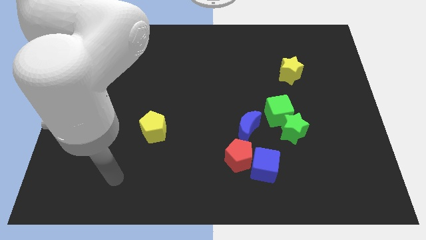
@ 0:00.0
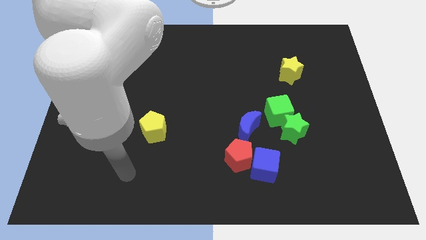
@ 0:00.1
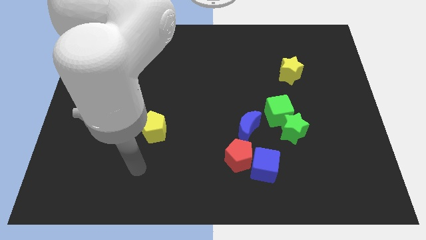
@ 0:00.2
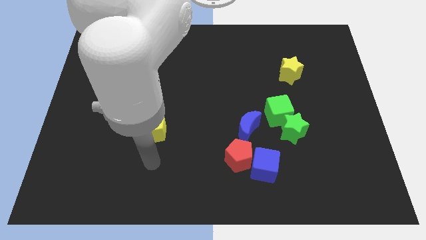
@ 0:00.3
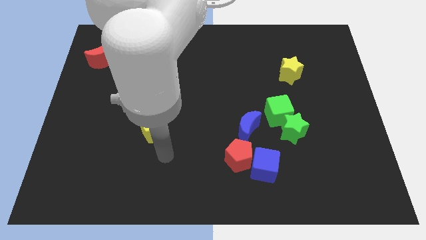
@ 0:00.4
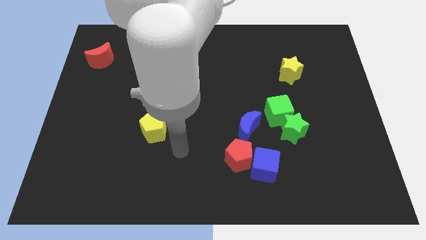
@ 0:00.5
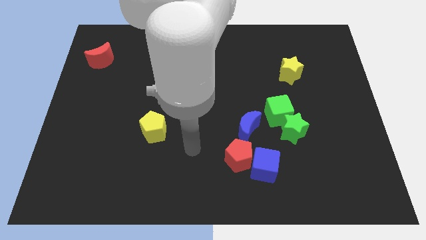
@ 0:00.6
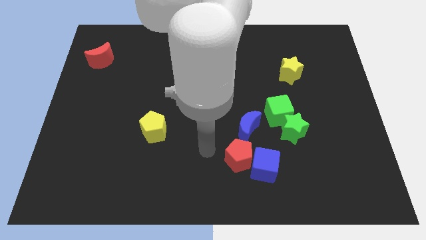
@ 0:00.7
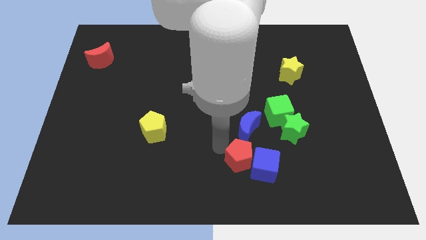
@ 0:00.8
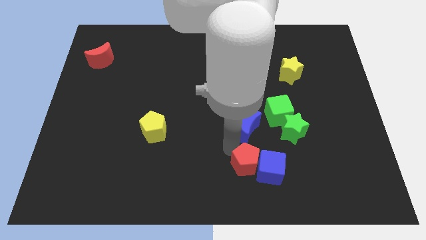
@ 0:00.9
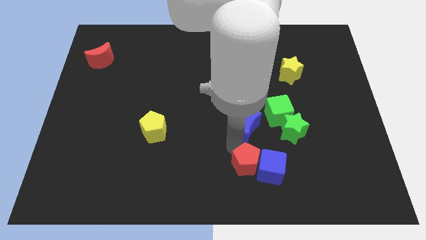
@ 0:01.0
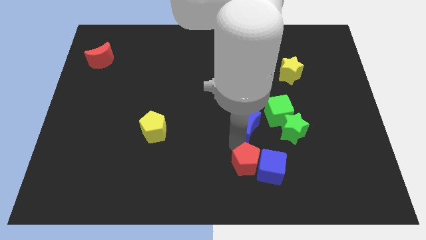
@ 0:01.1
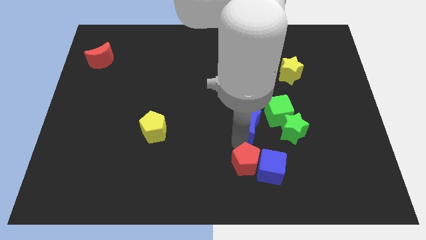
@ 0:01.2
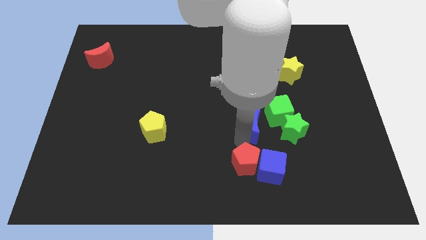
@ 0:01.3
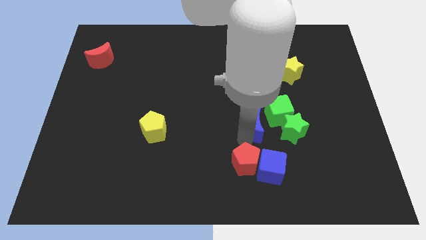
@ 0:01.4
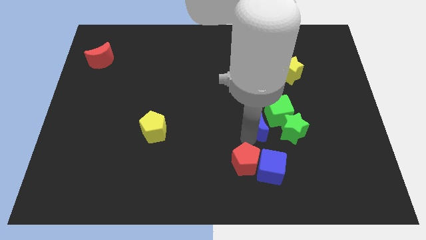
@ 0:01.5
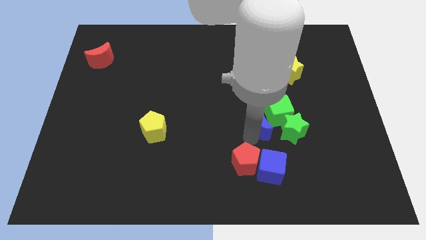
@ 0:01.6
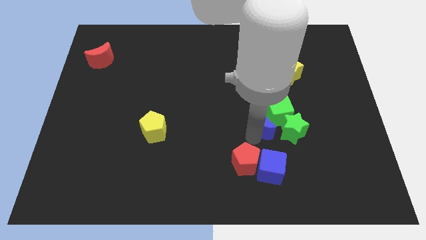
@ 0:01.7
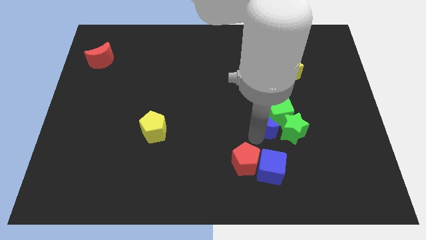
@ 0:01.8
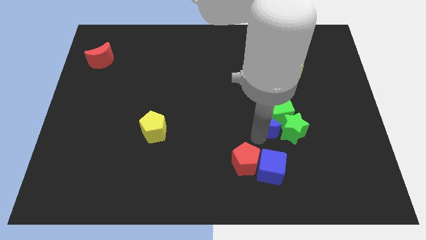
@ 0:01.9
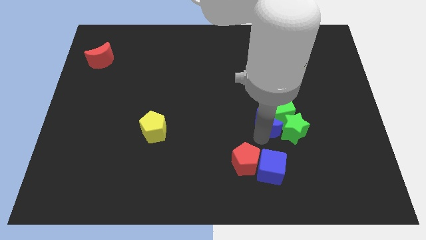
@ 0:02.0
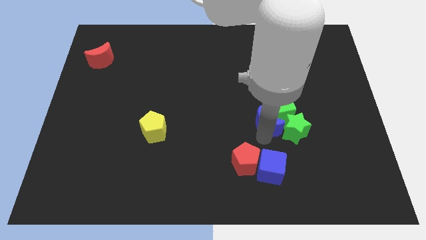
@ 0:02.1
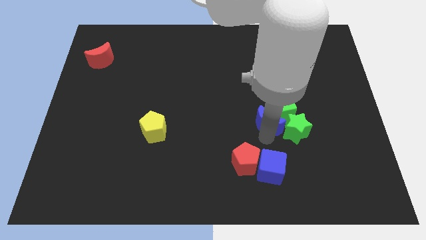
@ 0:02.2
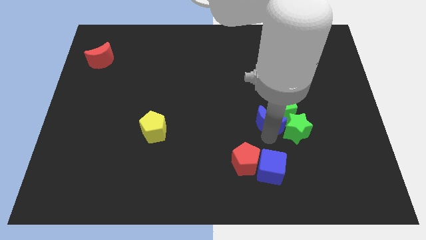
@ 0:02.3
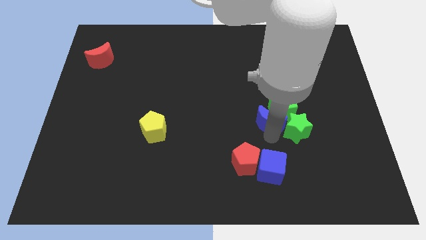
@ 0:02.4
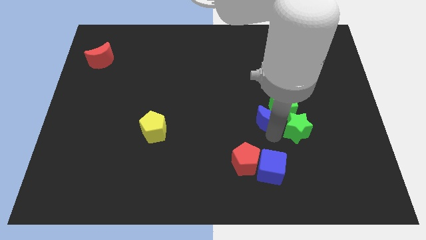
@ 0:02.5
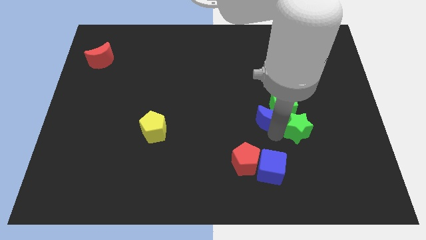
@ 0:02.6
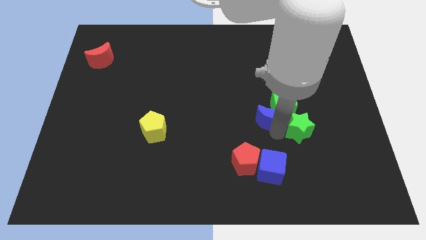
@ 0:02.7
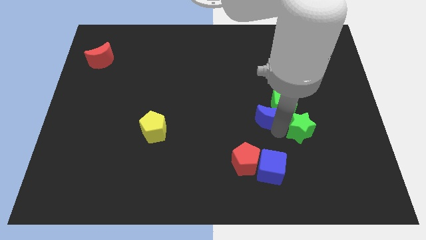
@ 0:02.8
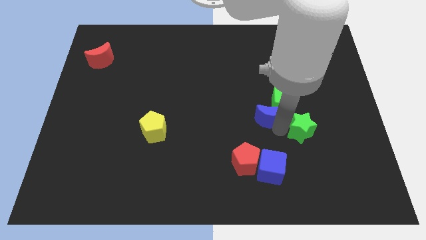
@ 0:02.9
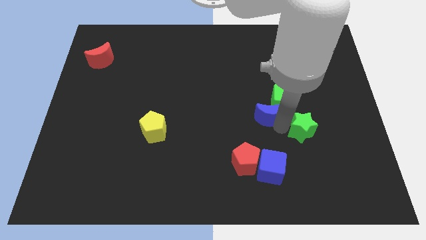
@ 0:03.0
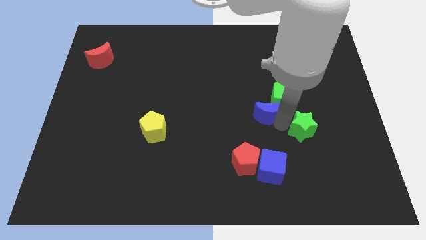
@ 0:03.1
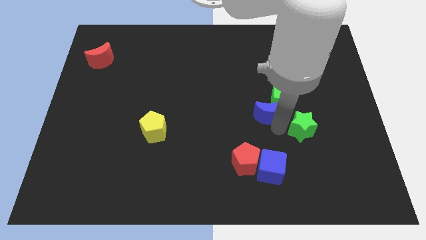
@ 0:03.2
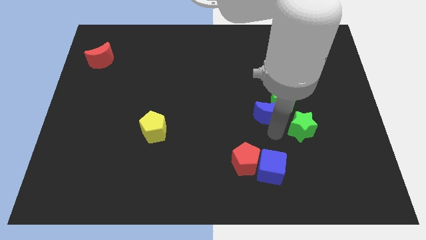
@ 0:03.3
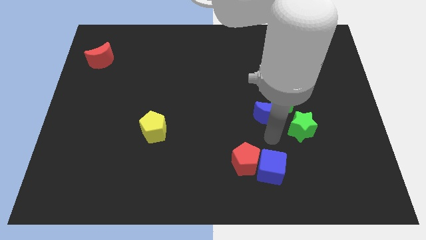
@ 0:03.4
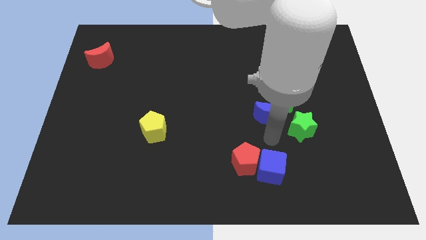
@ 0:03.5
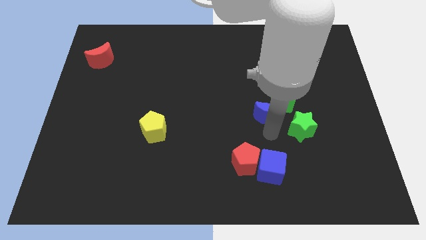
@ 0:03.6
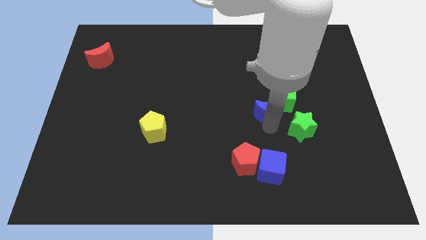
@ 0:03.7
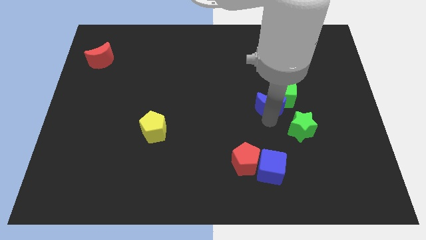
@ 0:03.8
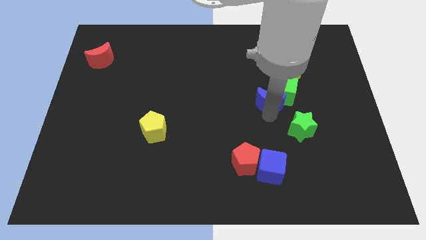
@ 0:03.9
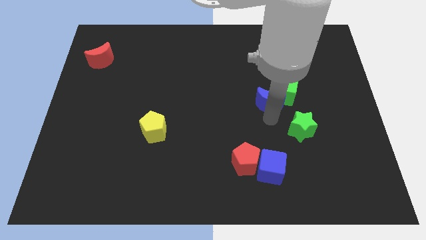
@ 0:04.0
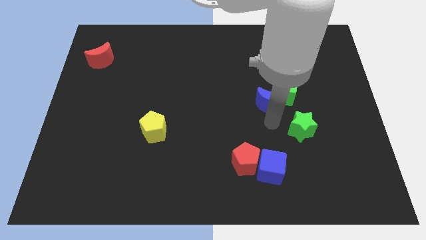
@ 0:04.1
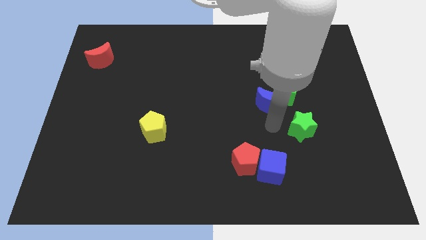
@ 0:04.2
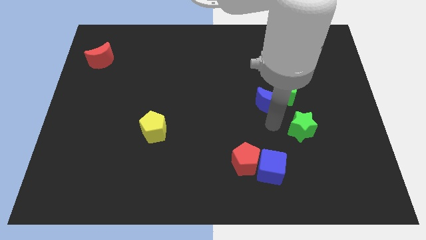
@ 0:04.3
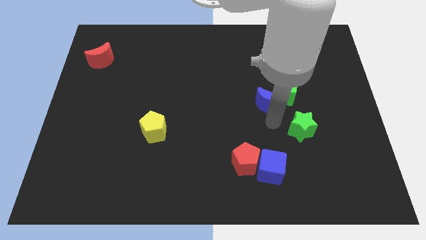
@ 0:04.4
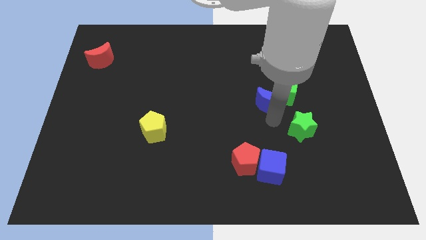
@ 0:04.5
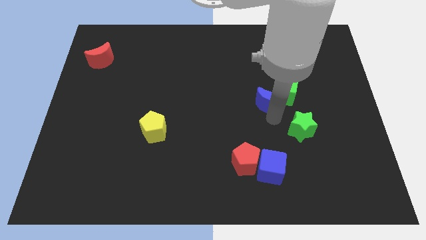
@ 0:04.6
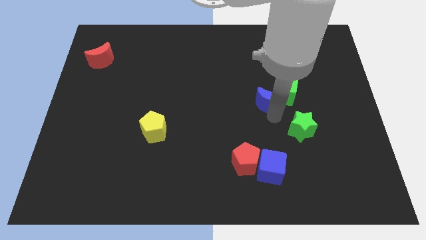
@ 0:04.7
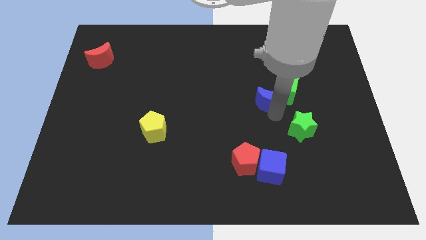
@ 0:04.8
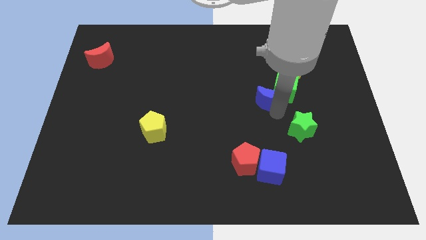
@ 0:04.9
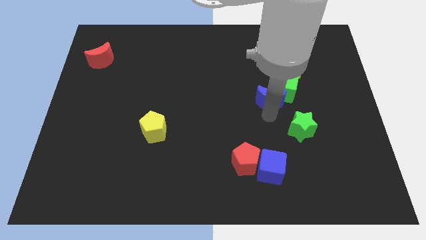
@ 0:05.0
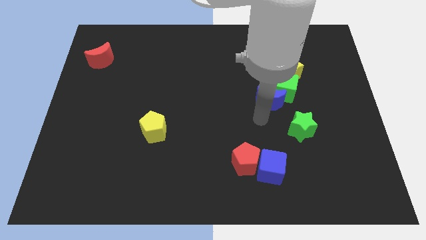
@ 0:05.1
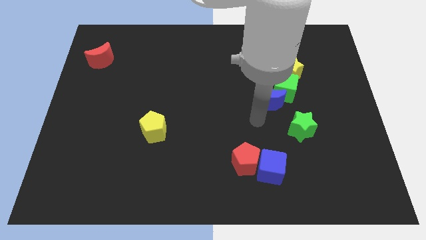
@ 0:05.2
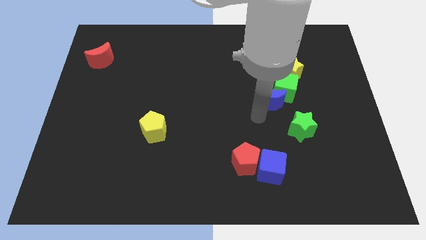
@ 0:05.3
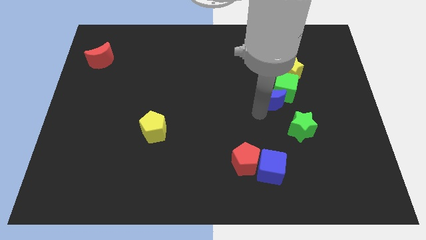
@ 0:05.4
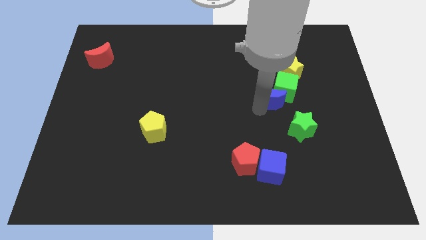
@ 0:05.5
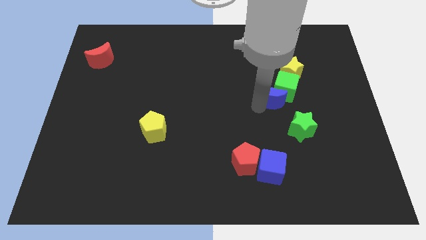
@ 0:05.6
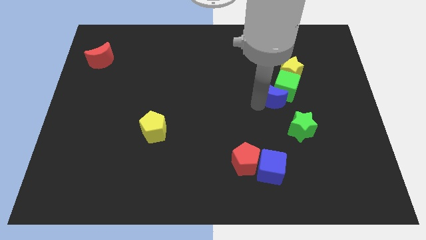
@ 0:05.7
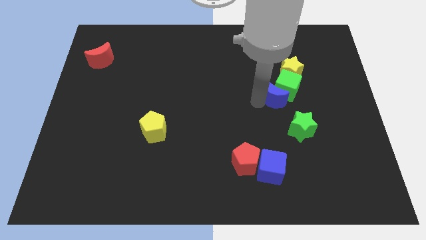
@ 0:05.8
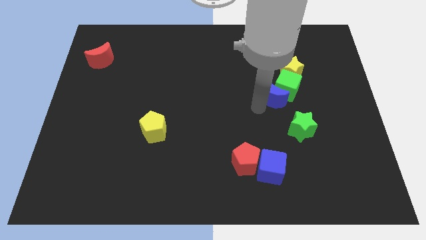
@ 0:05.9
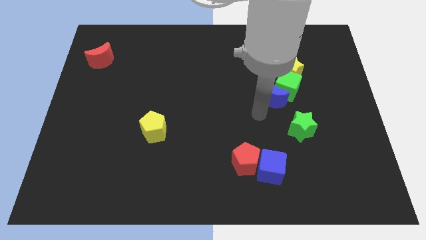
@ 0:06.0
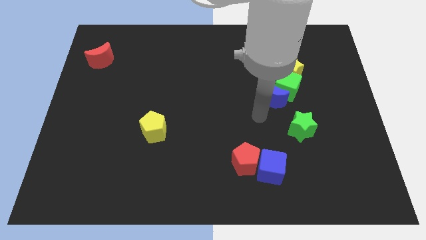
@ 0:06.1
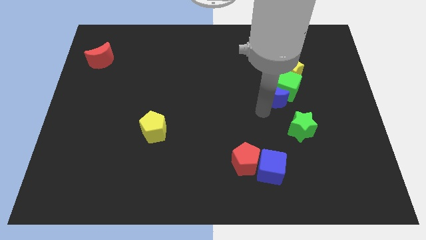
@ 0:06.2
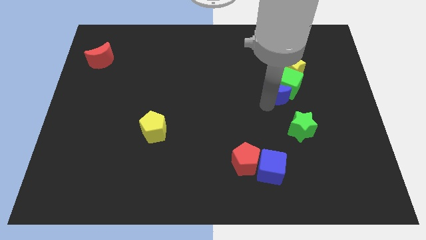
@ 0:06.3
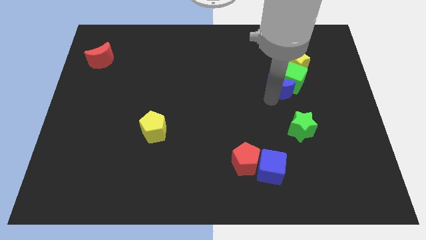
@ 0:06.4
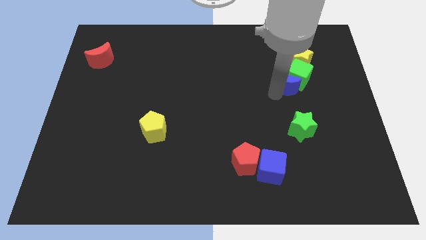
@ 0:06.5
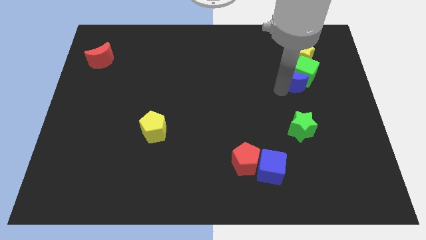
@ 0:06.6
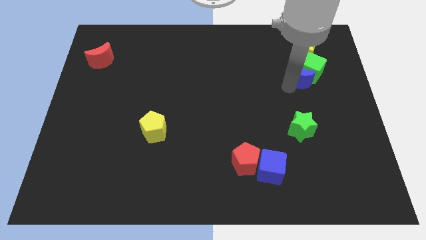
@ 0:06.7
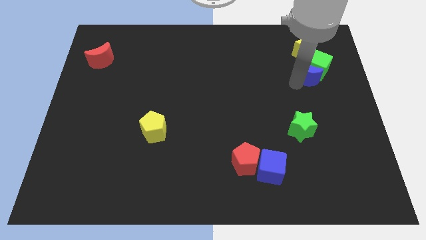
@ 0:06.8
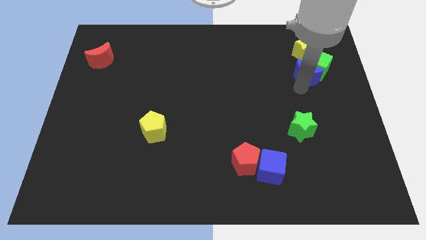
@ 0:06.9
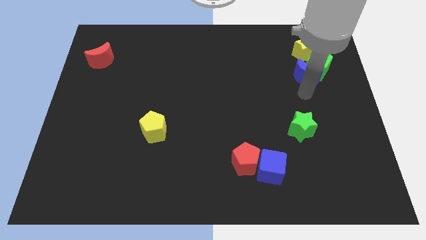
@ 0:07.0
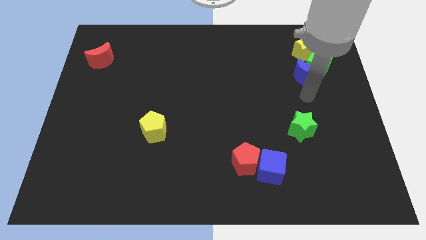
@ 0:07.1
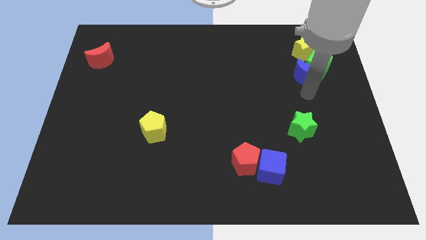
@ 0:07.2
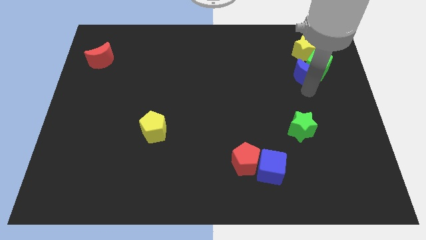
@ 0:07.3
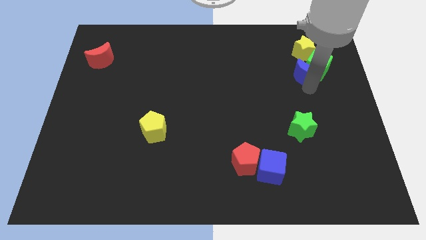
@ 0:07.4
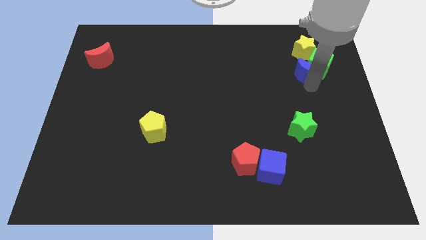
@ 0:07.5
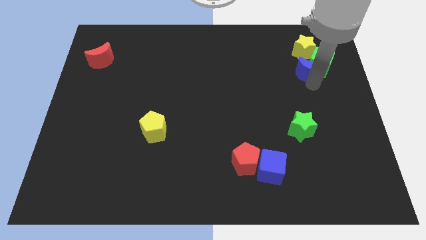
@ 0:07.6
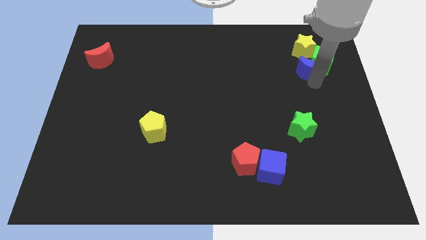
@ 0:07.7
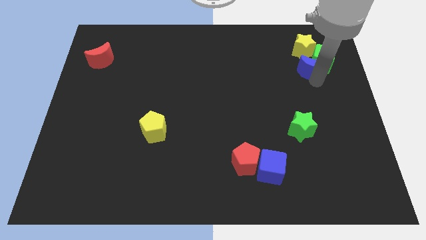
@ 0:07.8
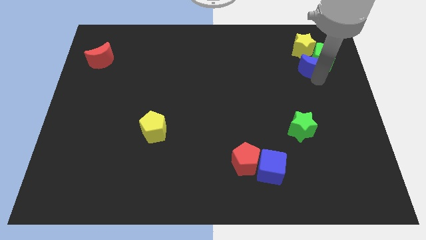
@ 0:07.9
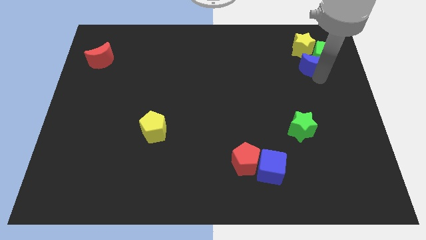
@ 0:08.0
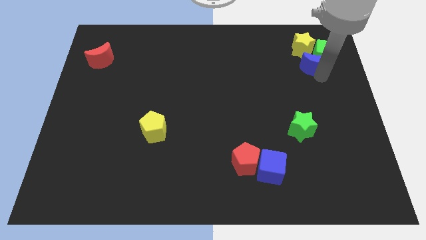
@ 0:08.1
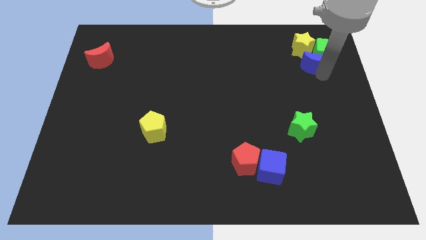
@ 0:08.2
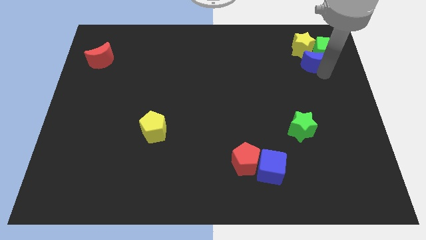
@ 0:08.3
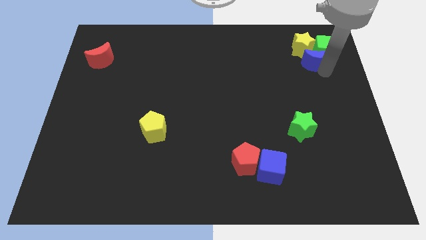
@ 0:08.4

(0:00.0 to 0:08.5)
put the blue moon next to the yellow star
